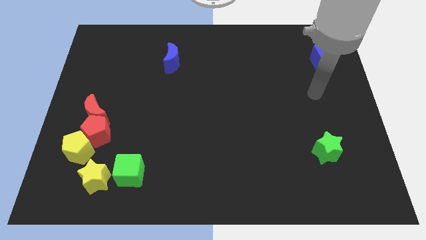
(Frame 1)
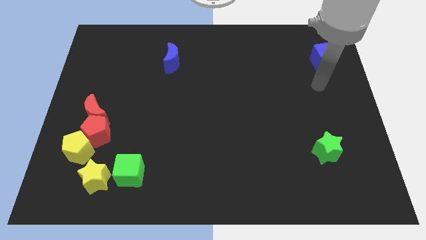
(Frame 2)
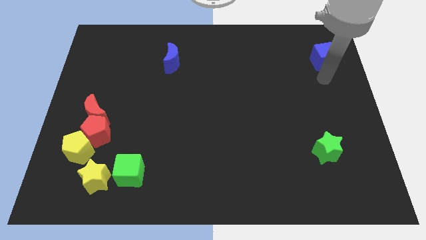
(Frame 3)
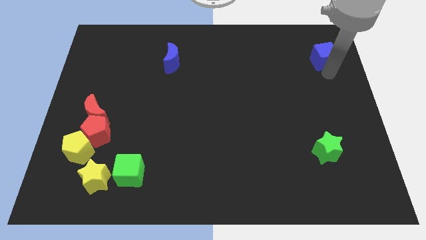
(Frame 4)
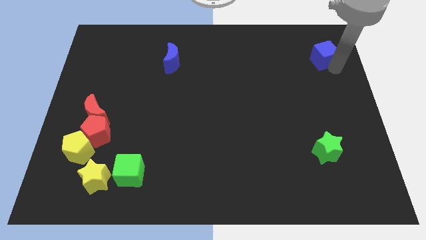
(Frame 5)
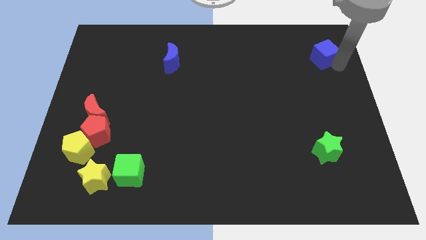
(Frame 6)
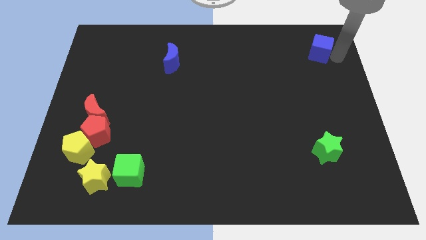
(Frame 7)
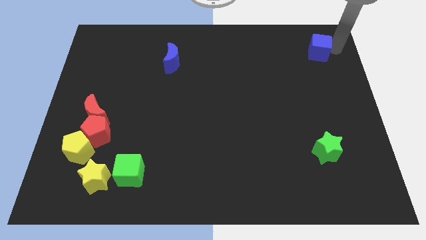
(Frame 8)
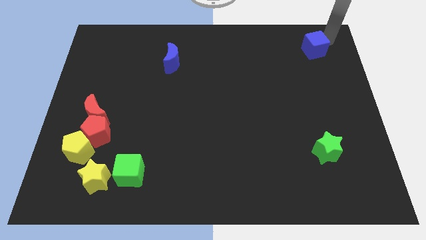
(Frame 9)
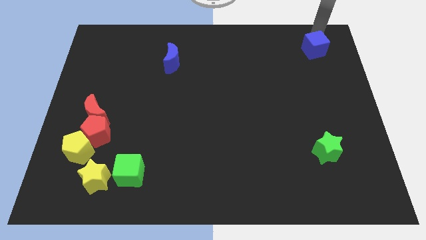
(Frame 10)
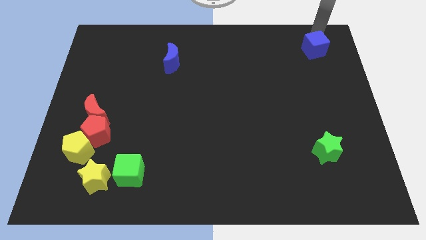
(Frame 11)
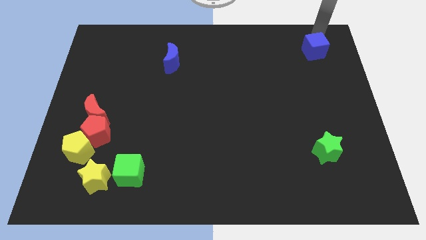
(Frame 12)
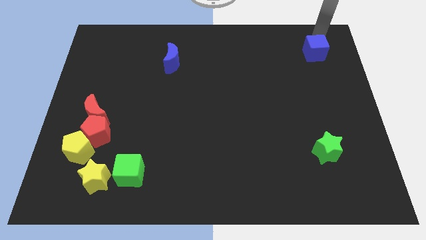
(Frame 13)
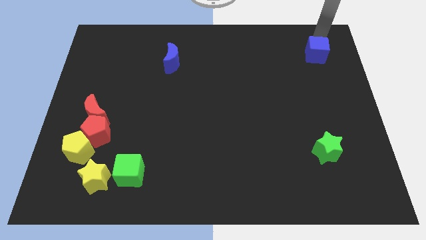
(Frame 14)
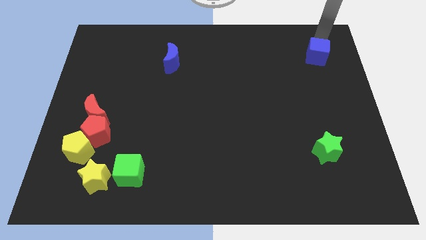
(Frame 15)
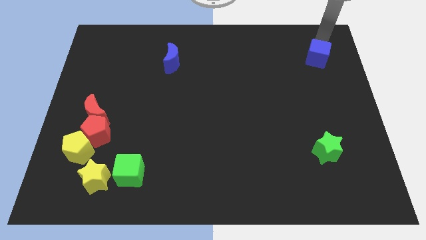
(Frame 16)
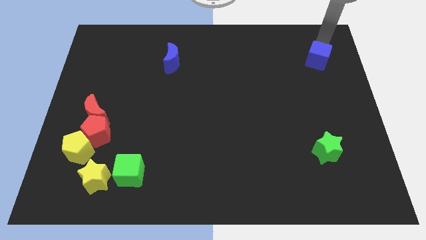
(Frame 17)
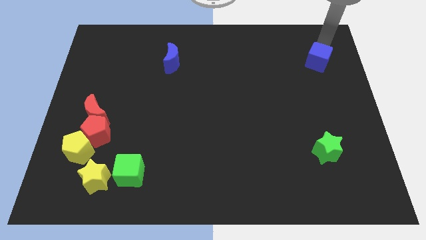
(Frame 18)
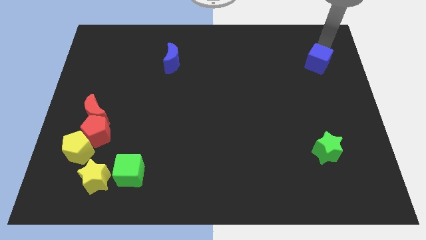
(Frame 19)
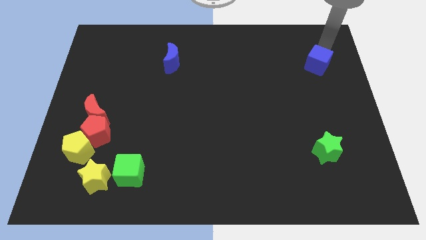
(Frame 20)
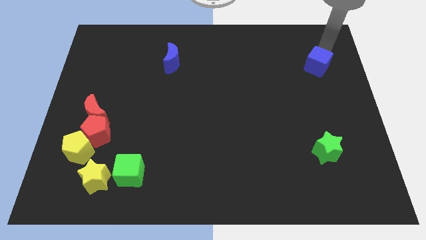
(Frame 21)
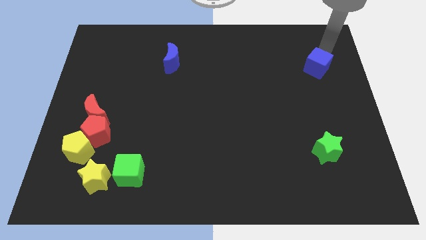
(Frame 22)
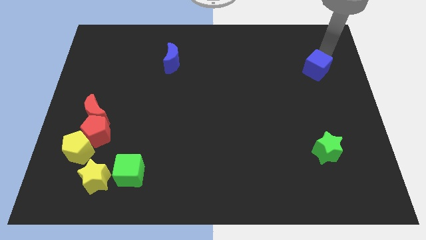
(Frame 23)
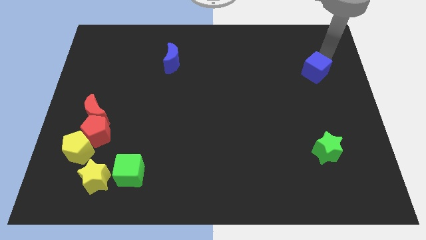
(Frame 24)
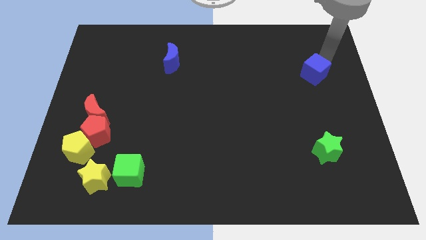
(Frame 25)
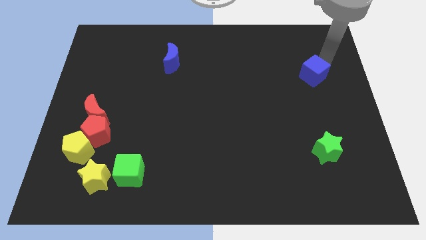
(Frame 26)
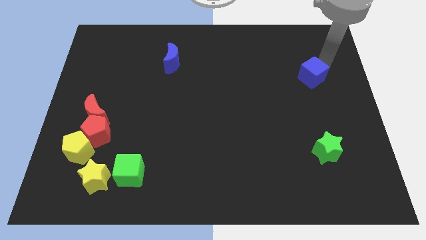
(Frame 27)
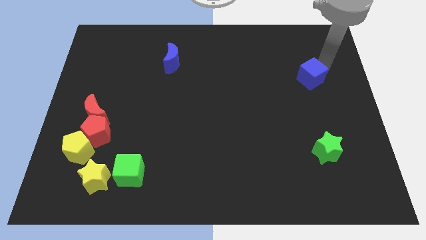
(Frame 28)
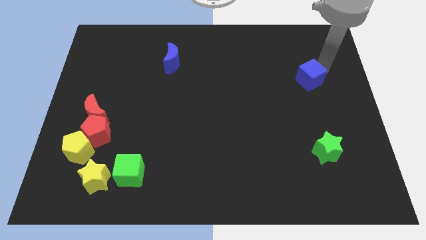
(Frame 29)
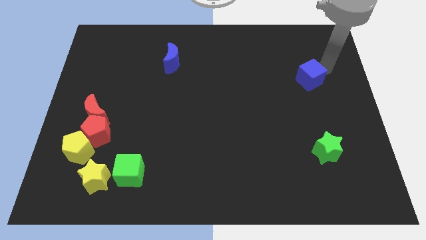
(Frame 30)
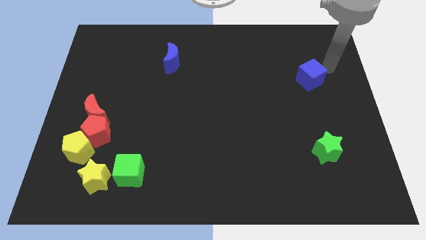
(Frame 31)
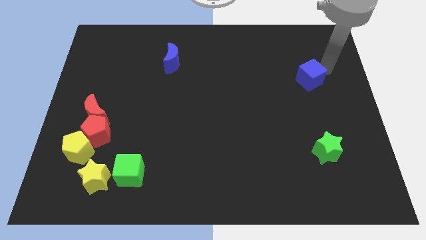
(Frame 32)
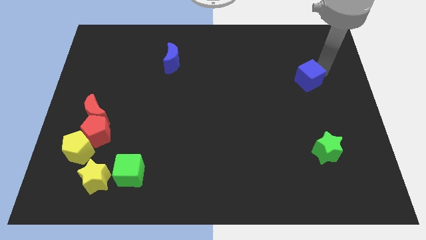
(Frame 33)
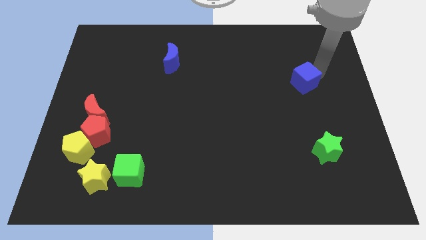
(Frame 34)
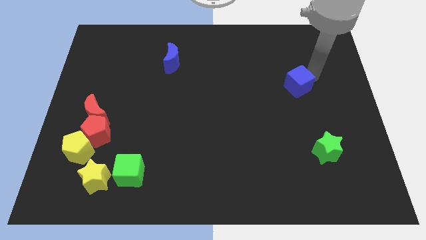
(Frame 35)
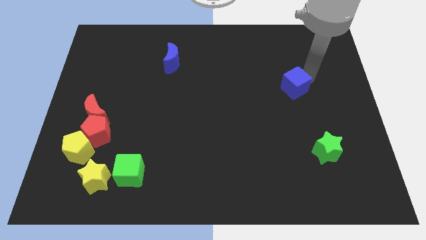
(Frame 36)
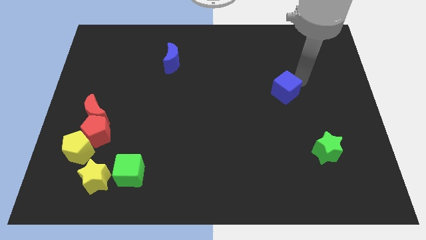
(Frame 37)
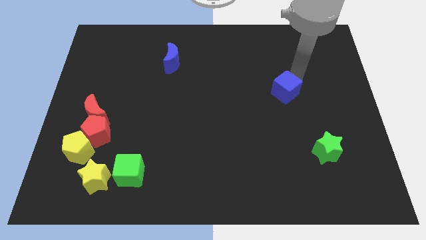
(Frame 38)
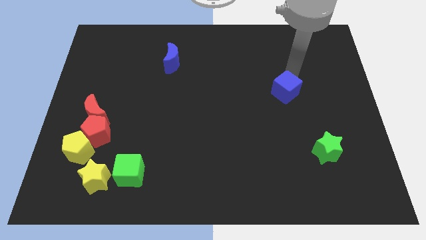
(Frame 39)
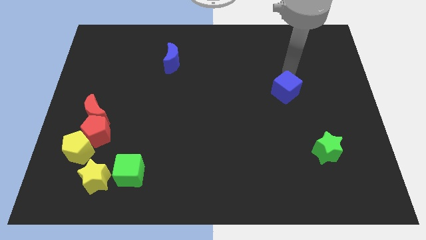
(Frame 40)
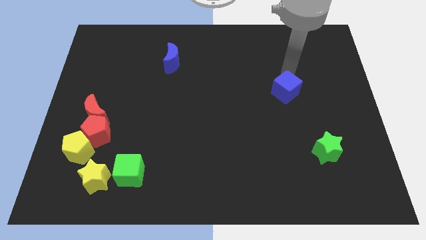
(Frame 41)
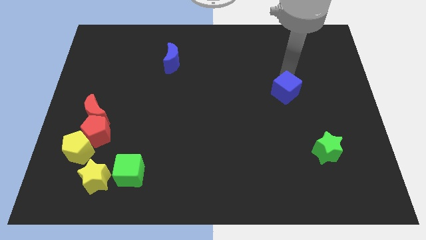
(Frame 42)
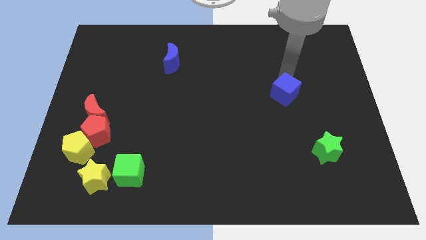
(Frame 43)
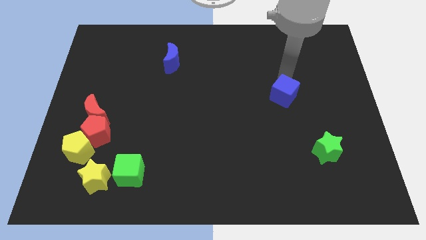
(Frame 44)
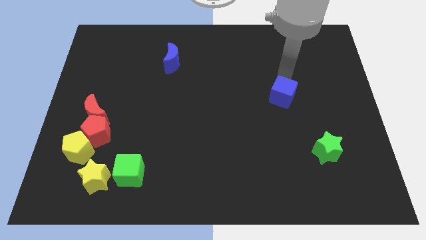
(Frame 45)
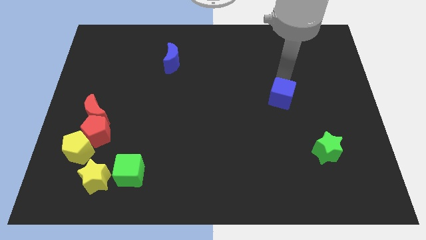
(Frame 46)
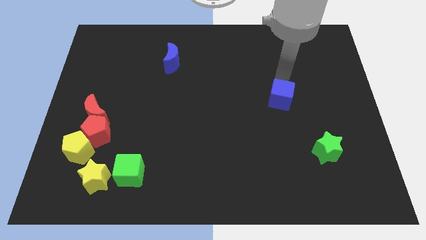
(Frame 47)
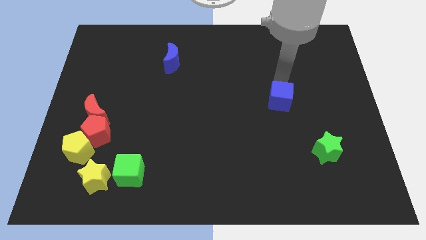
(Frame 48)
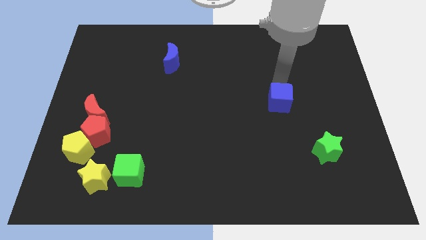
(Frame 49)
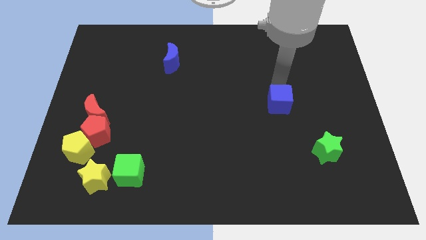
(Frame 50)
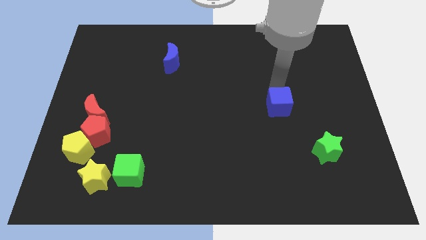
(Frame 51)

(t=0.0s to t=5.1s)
push the blue cube diagonally down and to the left

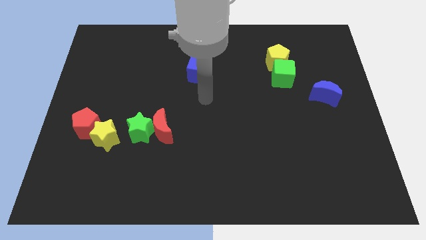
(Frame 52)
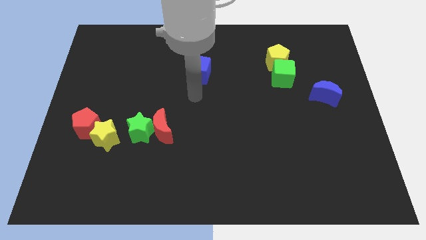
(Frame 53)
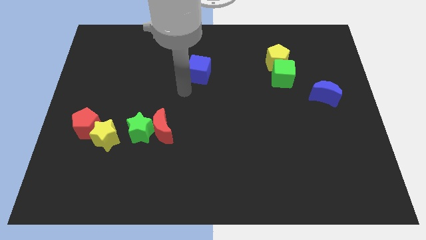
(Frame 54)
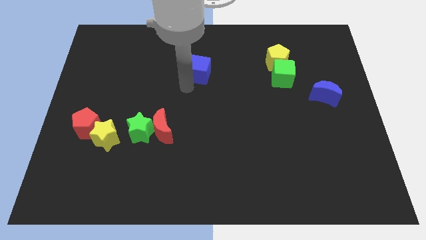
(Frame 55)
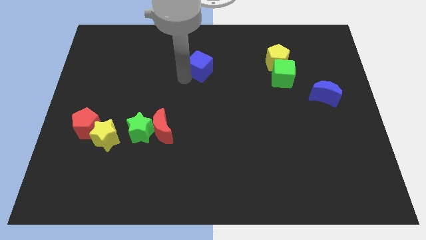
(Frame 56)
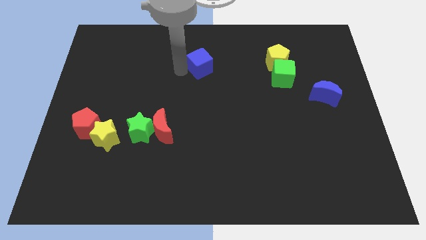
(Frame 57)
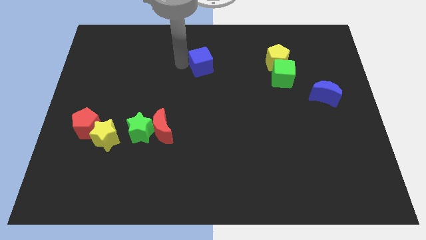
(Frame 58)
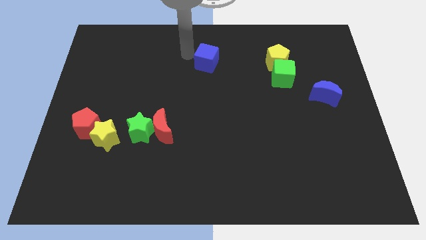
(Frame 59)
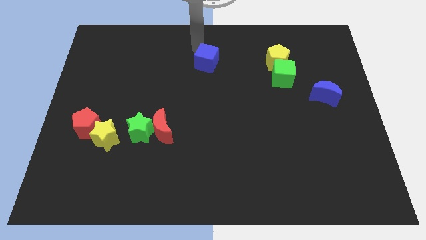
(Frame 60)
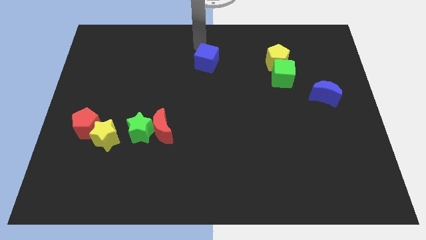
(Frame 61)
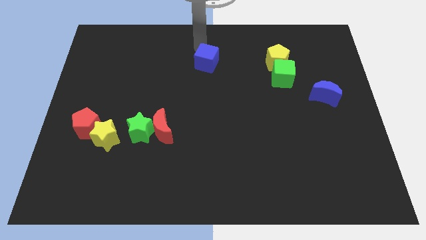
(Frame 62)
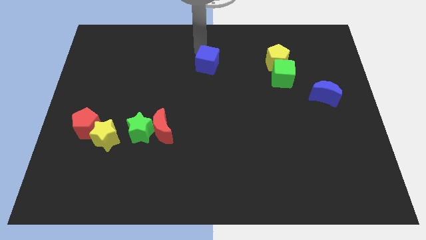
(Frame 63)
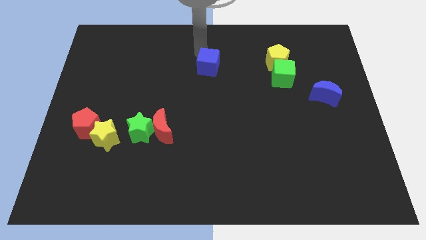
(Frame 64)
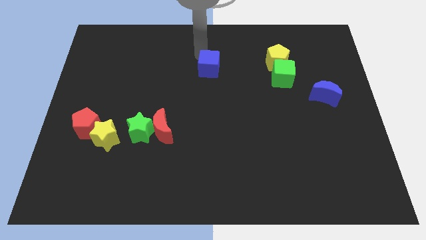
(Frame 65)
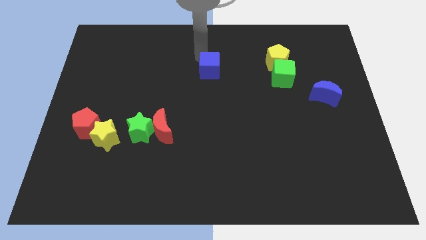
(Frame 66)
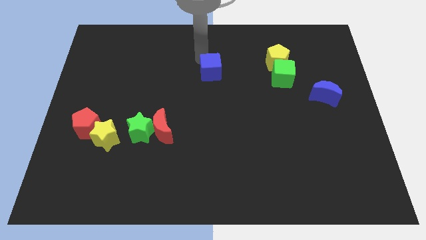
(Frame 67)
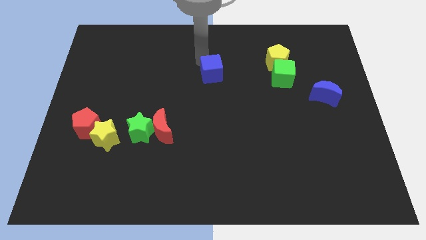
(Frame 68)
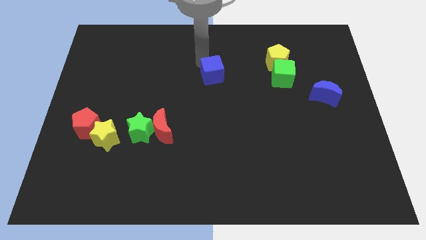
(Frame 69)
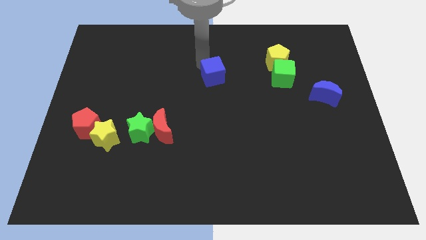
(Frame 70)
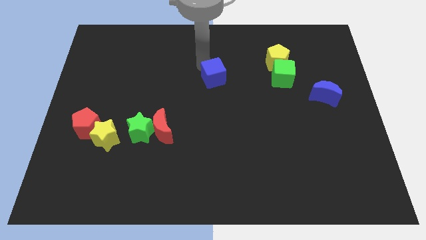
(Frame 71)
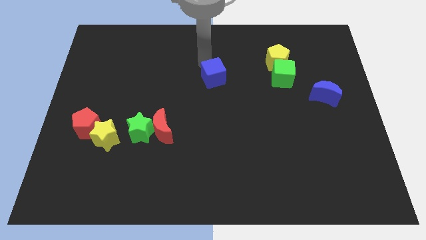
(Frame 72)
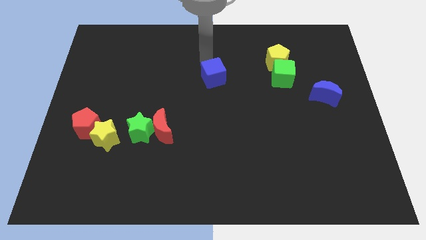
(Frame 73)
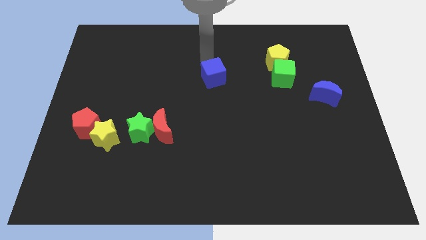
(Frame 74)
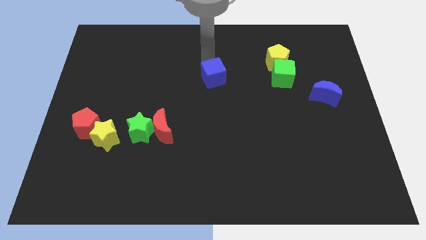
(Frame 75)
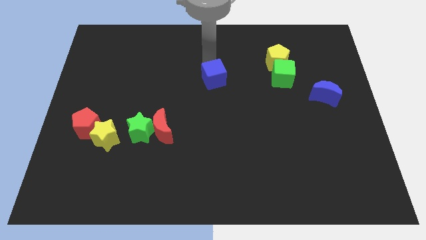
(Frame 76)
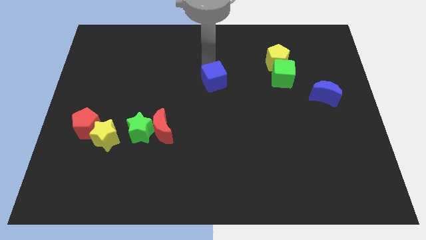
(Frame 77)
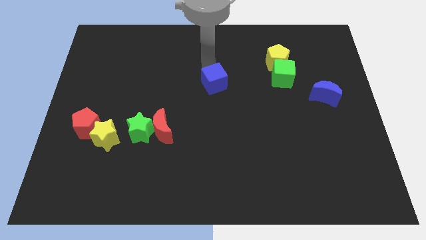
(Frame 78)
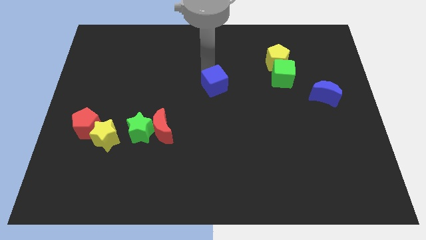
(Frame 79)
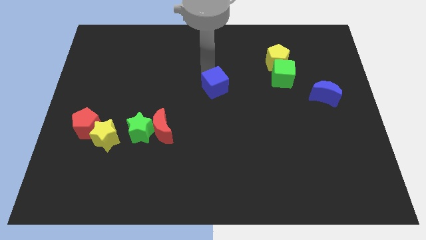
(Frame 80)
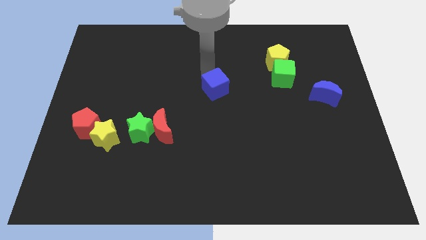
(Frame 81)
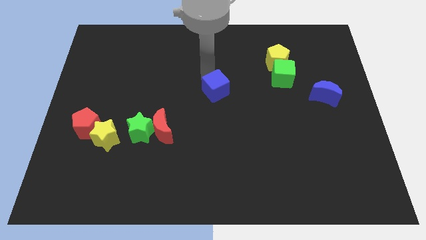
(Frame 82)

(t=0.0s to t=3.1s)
slightly move the blue cube diagonally downwards and right
